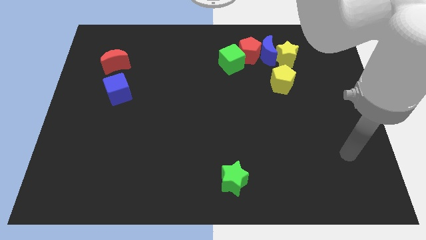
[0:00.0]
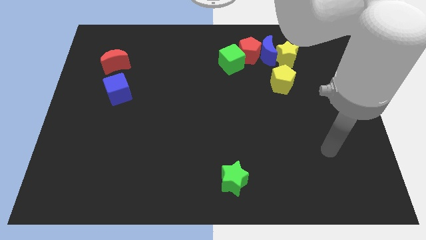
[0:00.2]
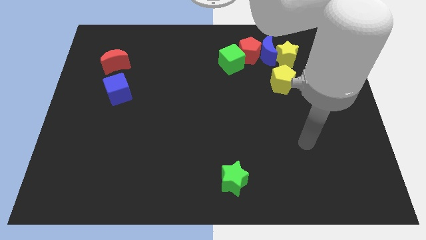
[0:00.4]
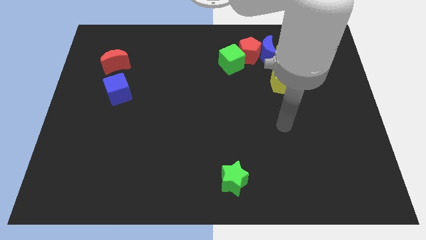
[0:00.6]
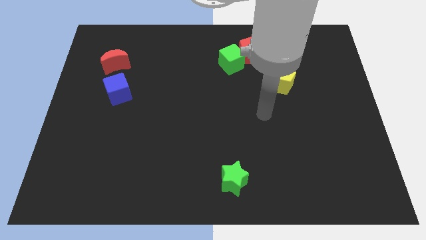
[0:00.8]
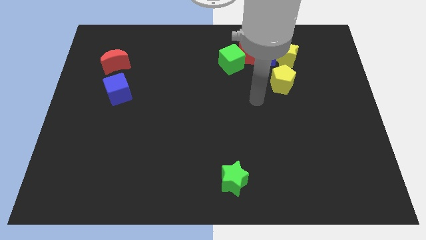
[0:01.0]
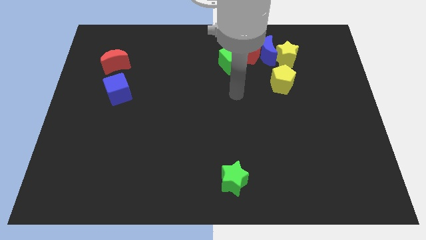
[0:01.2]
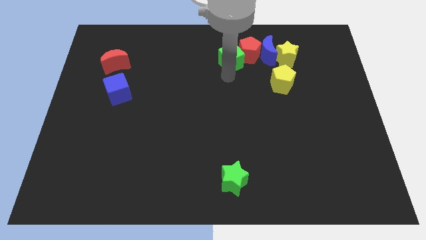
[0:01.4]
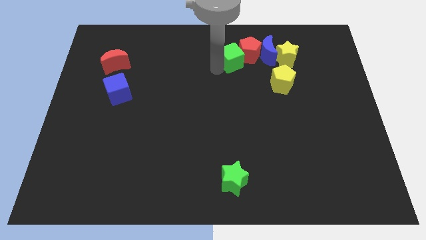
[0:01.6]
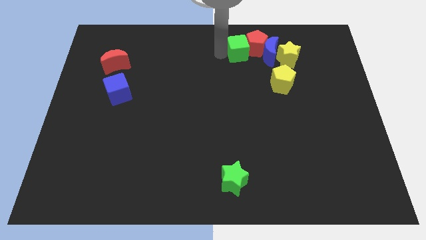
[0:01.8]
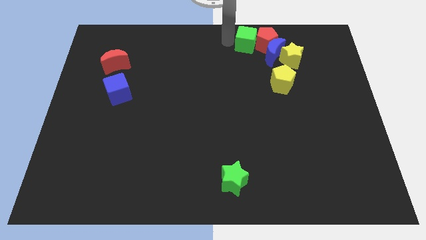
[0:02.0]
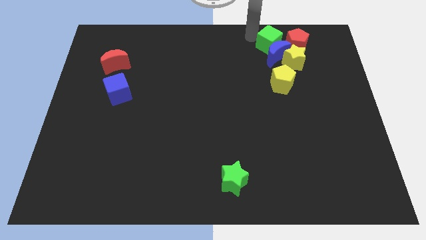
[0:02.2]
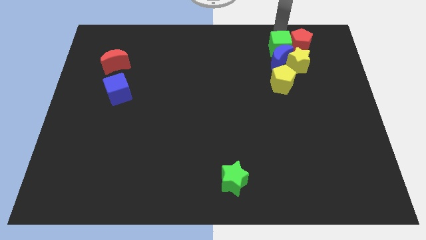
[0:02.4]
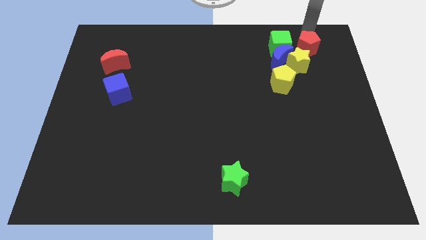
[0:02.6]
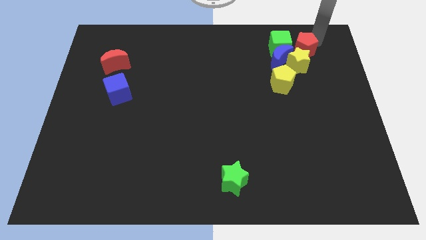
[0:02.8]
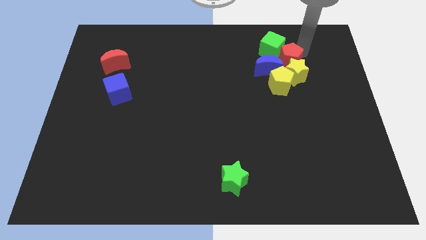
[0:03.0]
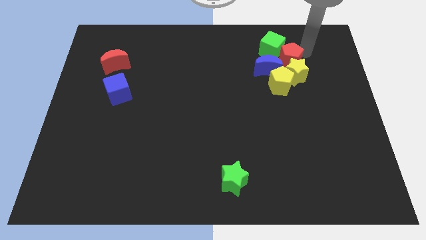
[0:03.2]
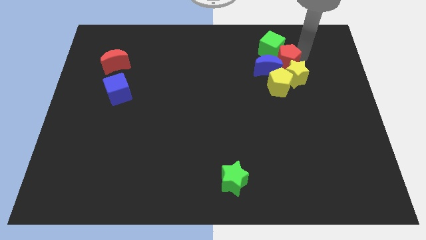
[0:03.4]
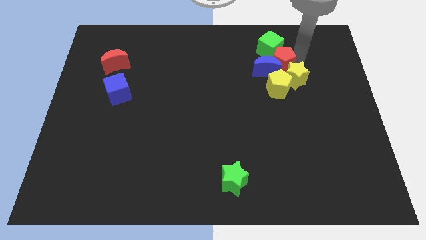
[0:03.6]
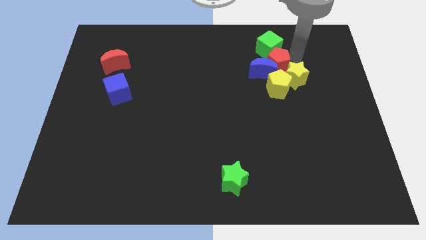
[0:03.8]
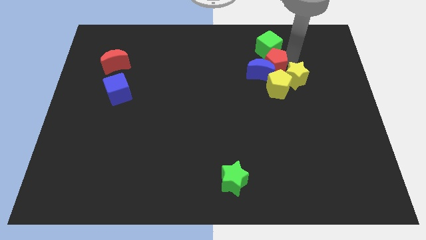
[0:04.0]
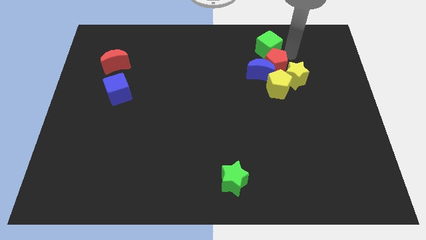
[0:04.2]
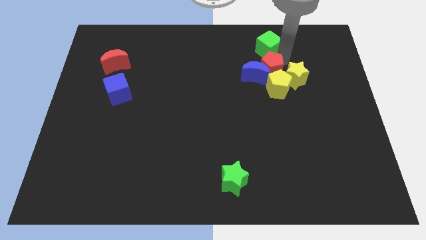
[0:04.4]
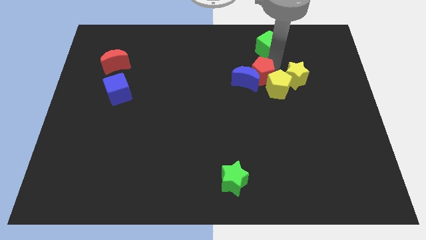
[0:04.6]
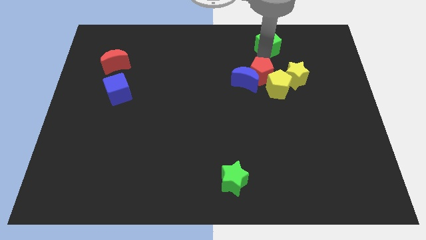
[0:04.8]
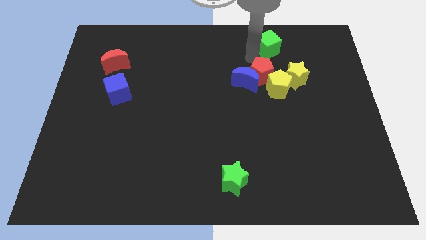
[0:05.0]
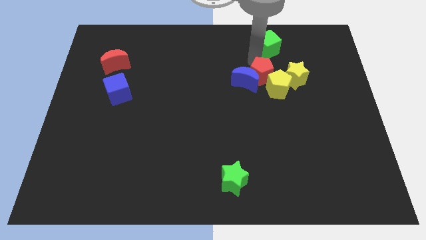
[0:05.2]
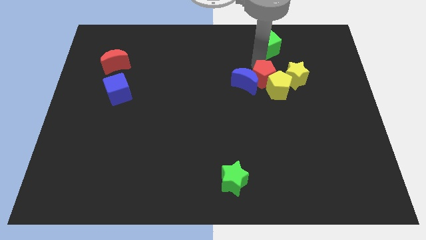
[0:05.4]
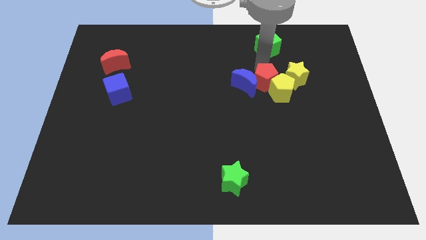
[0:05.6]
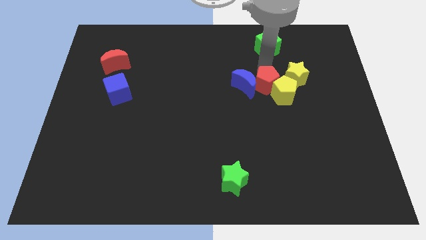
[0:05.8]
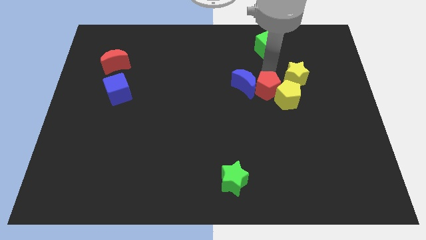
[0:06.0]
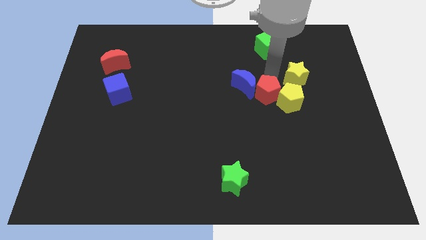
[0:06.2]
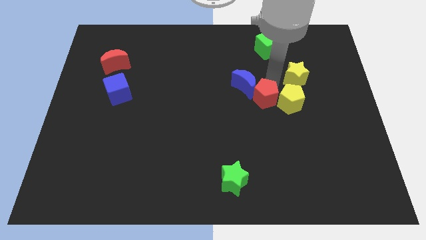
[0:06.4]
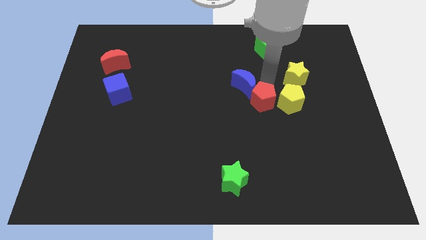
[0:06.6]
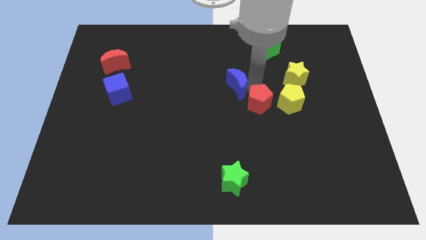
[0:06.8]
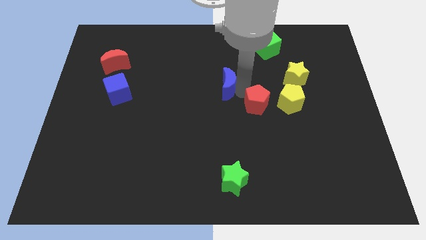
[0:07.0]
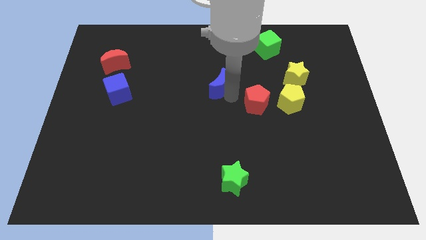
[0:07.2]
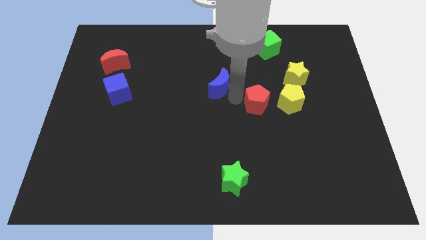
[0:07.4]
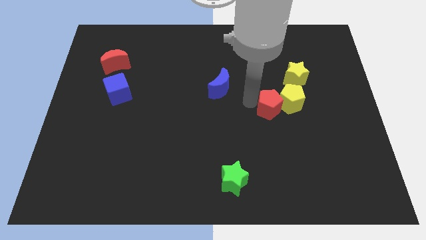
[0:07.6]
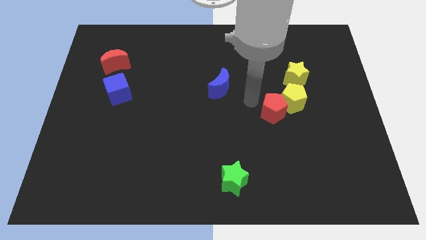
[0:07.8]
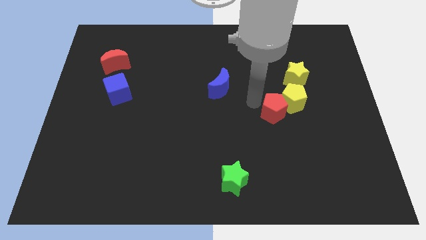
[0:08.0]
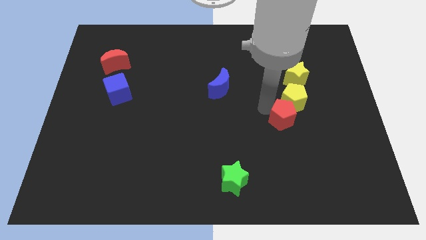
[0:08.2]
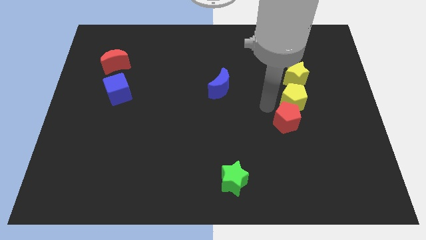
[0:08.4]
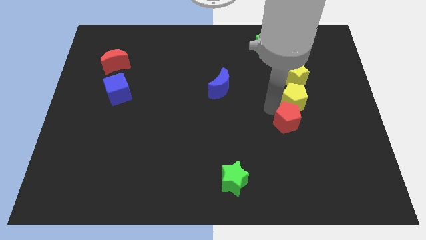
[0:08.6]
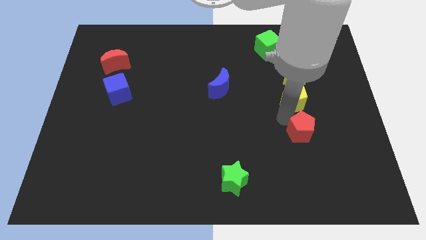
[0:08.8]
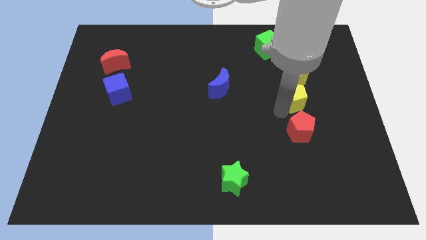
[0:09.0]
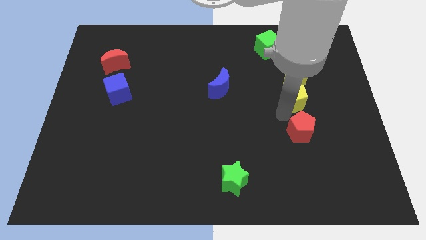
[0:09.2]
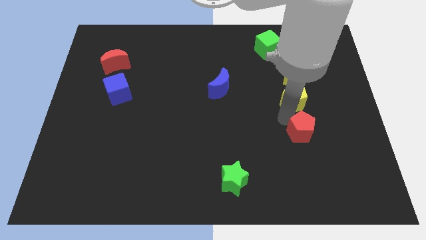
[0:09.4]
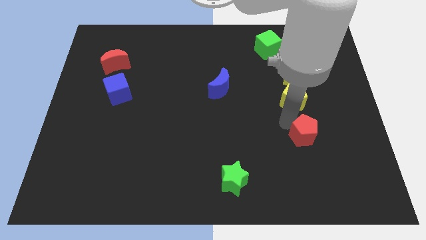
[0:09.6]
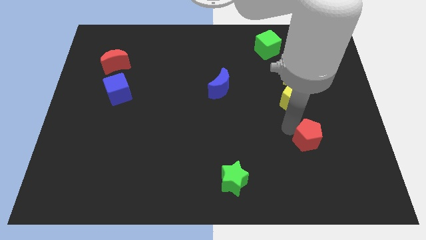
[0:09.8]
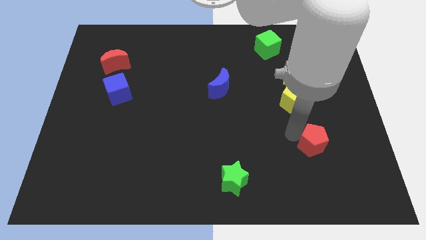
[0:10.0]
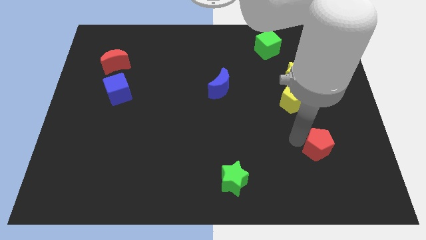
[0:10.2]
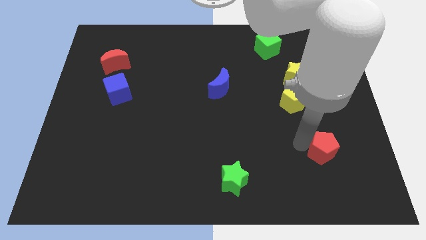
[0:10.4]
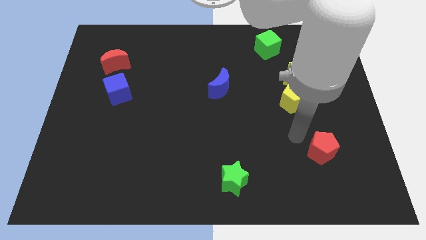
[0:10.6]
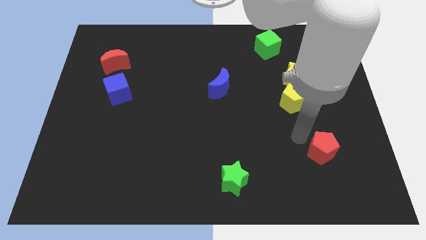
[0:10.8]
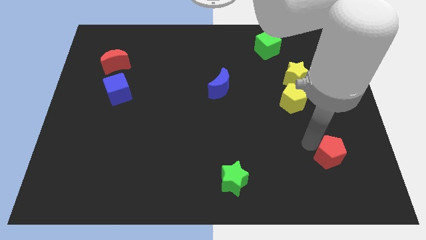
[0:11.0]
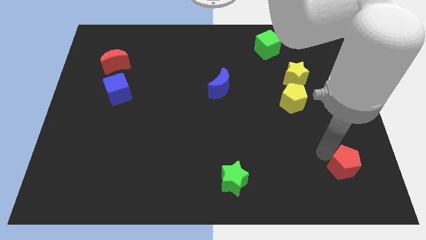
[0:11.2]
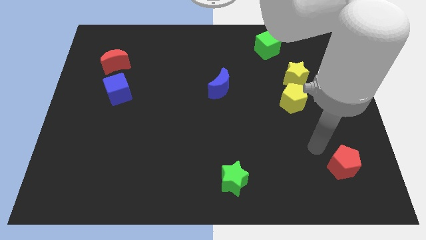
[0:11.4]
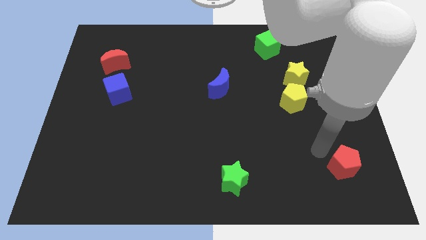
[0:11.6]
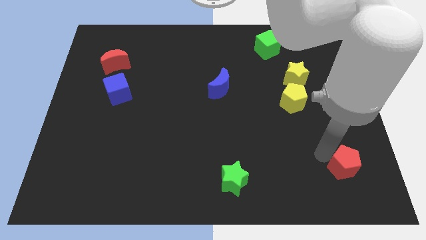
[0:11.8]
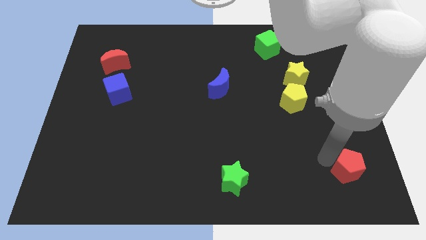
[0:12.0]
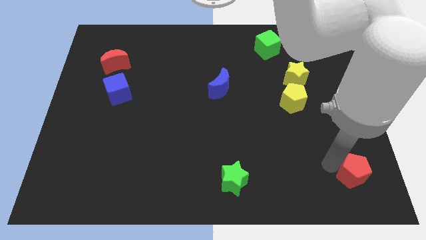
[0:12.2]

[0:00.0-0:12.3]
move the red pentagon to the lower right corner
